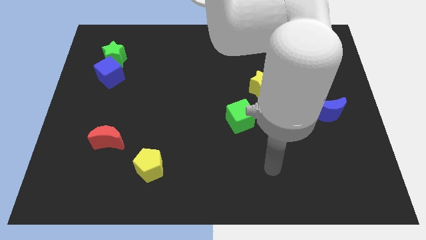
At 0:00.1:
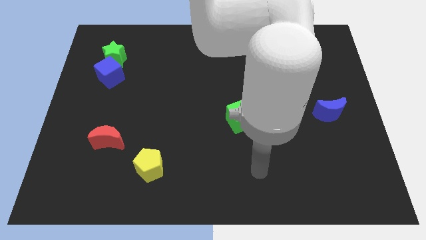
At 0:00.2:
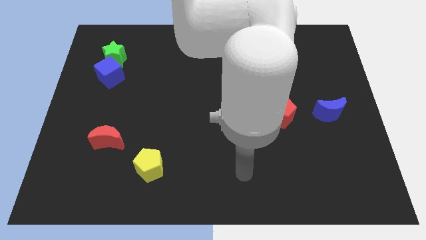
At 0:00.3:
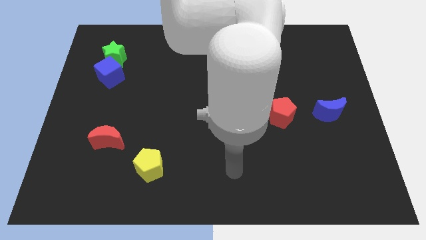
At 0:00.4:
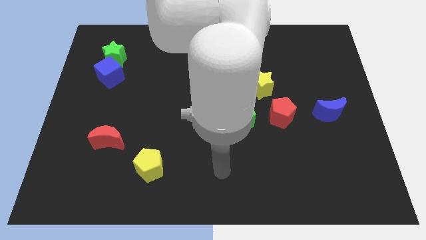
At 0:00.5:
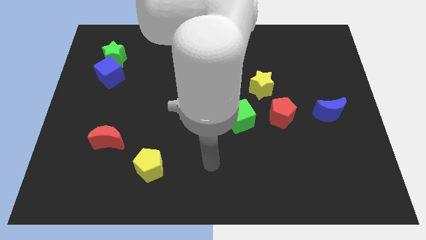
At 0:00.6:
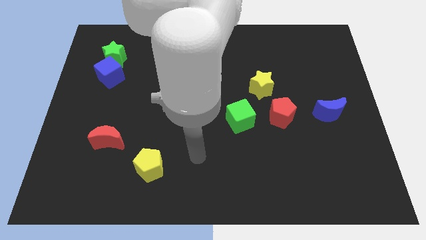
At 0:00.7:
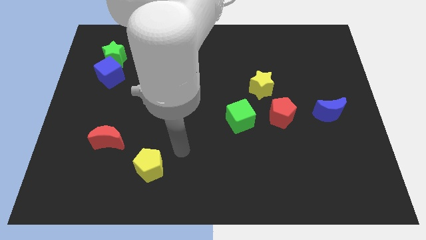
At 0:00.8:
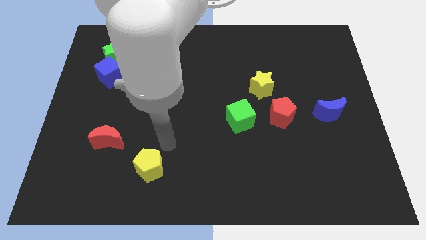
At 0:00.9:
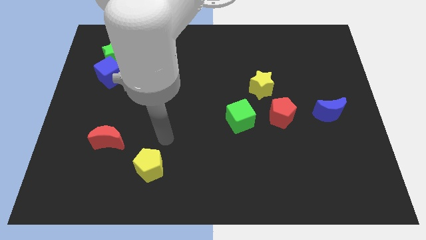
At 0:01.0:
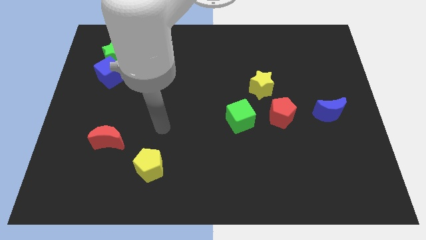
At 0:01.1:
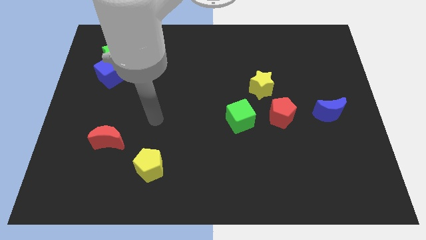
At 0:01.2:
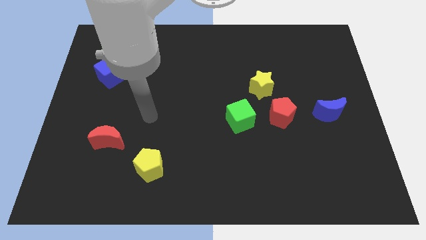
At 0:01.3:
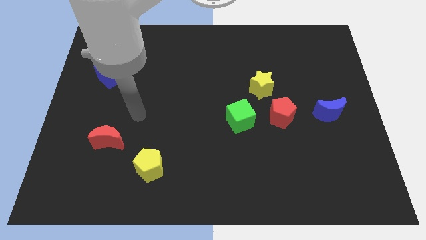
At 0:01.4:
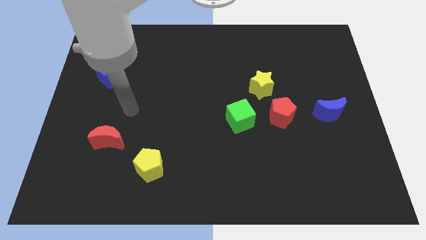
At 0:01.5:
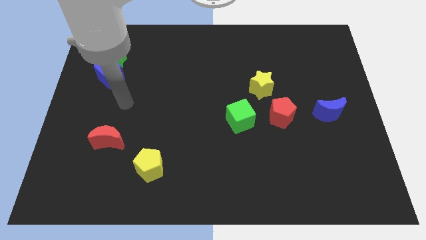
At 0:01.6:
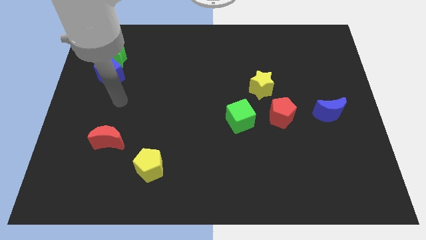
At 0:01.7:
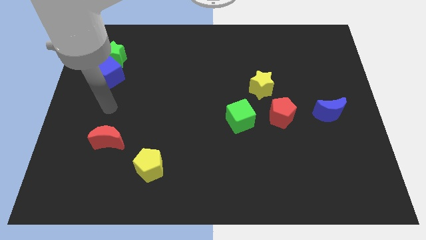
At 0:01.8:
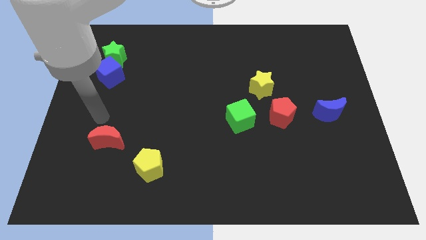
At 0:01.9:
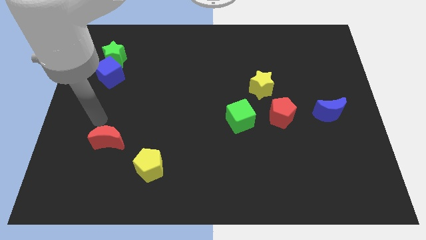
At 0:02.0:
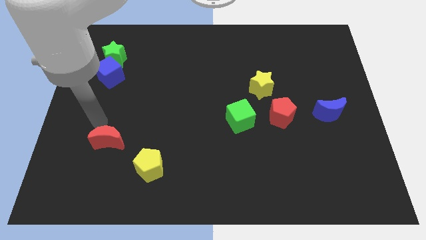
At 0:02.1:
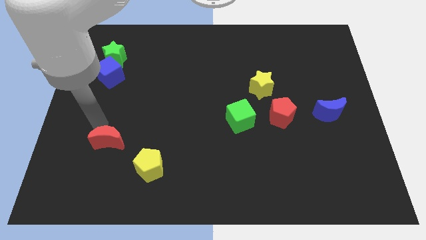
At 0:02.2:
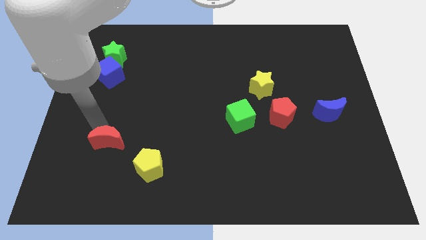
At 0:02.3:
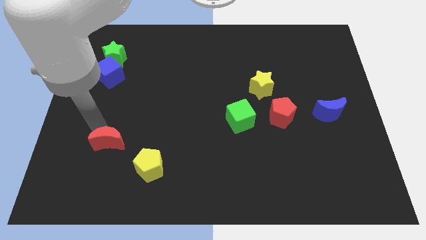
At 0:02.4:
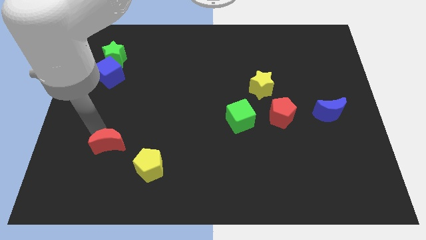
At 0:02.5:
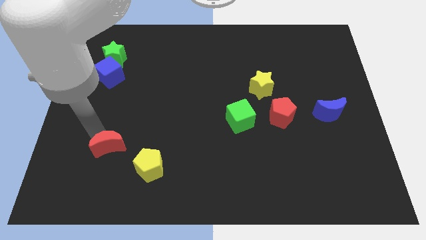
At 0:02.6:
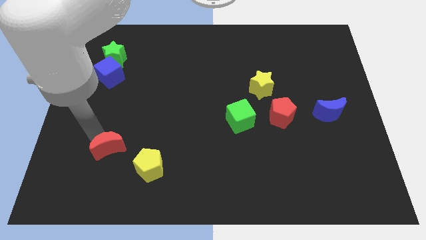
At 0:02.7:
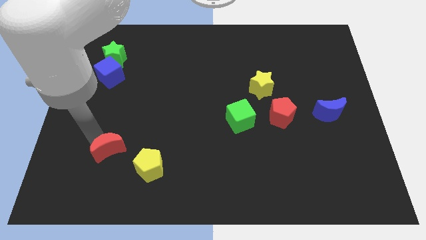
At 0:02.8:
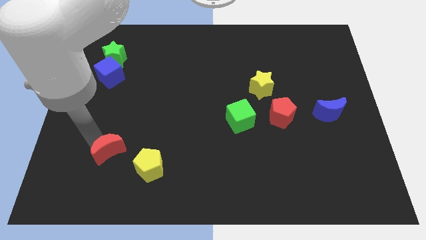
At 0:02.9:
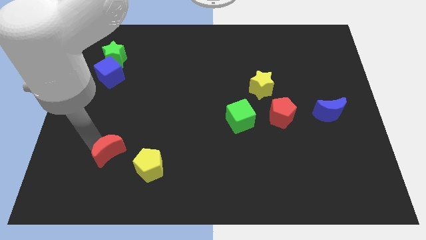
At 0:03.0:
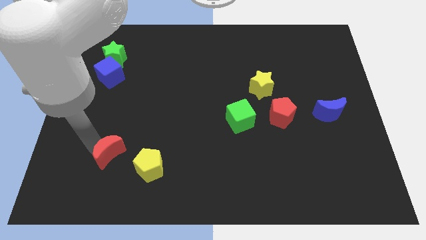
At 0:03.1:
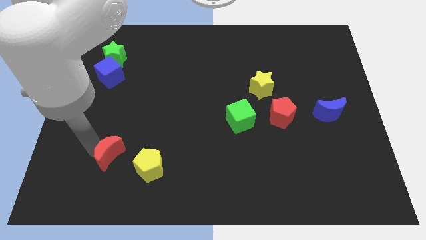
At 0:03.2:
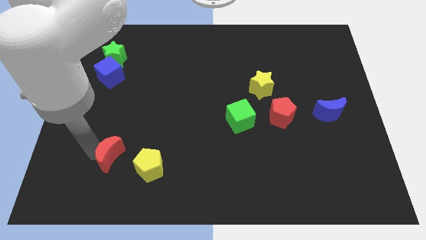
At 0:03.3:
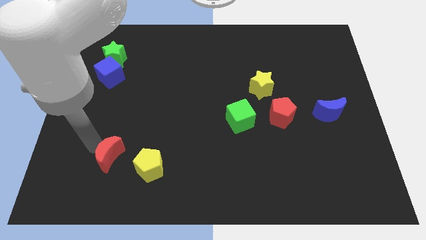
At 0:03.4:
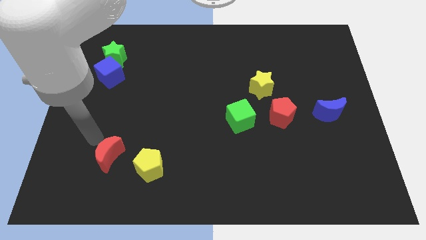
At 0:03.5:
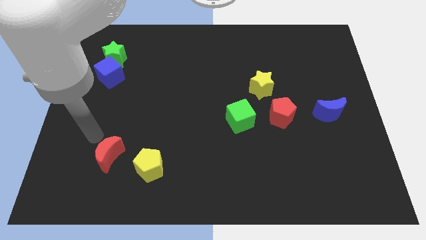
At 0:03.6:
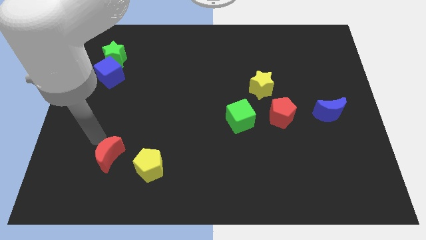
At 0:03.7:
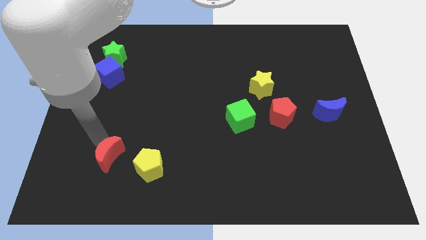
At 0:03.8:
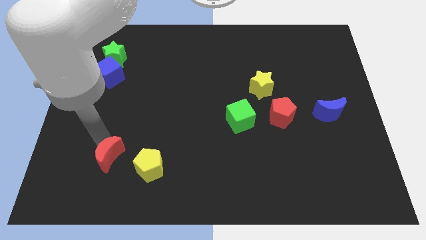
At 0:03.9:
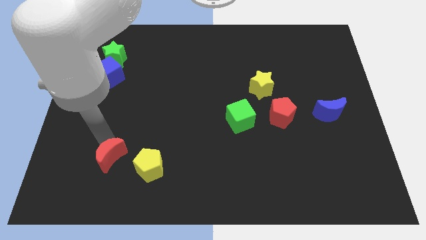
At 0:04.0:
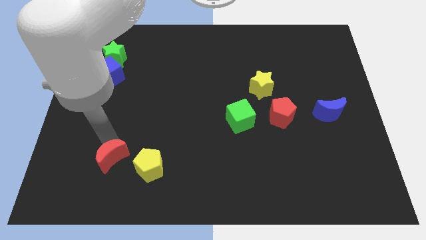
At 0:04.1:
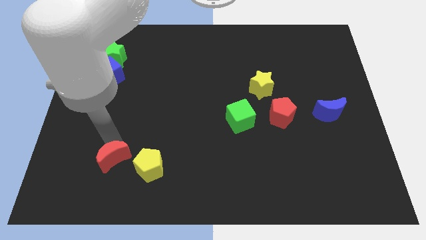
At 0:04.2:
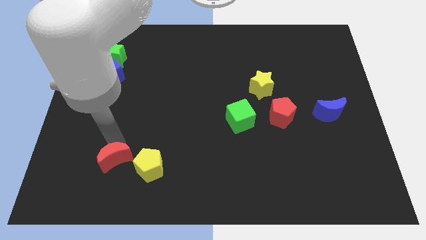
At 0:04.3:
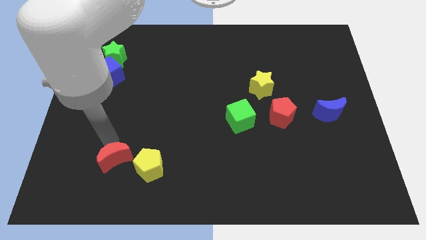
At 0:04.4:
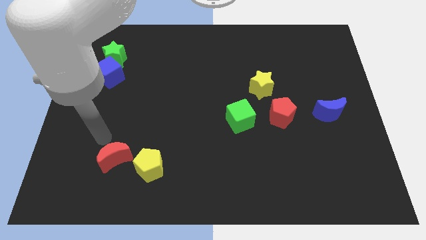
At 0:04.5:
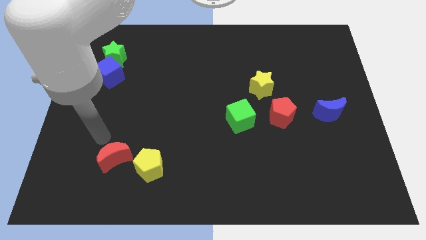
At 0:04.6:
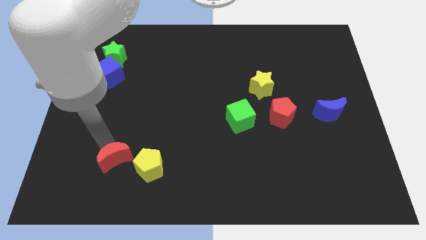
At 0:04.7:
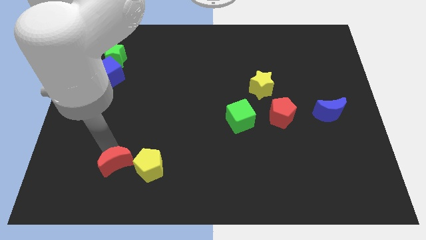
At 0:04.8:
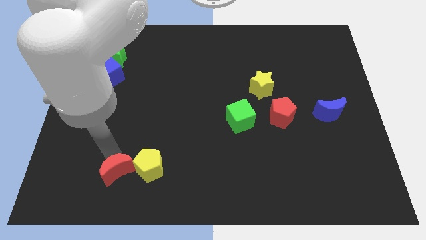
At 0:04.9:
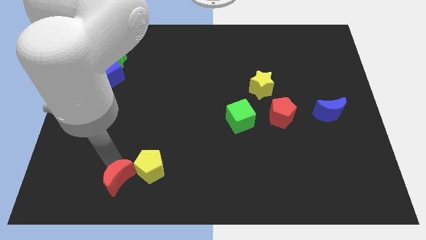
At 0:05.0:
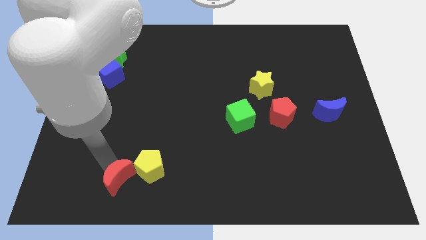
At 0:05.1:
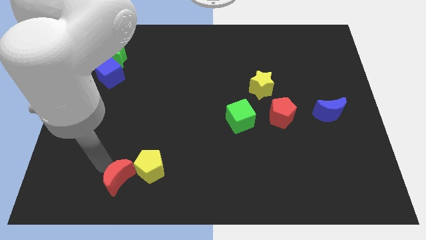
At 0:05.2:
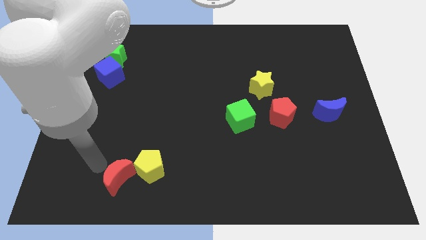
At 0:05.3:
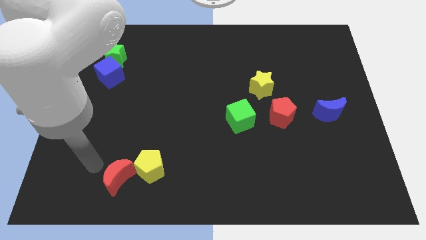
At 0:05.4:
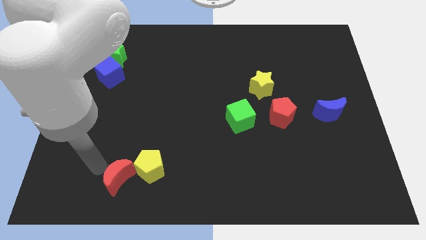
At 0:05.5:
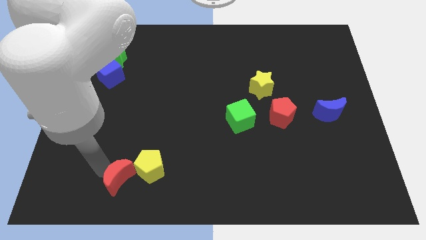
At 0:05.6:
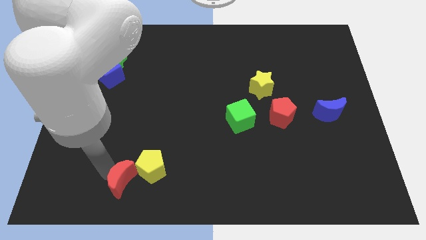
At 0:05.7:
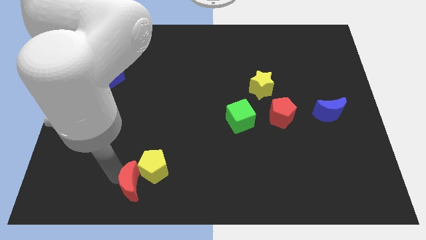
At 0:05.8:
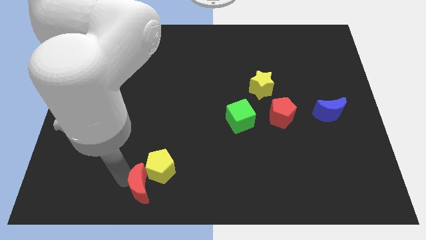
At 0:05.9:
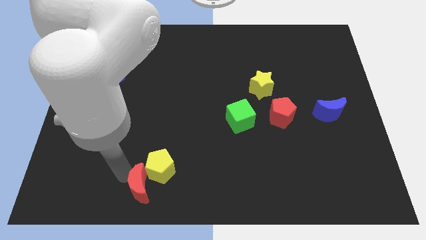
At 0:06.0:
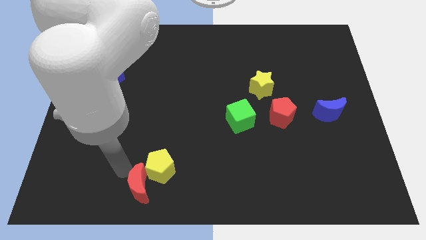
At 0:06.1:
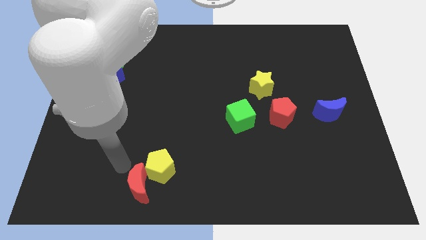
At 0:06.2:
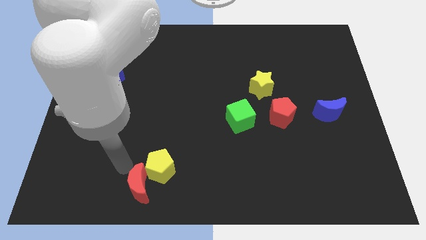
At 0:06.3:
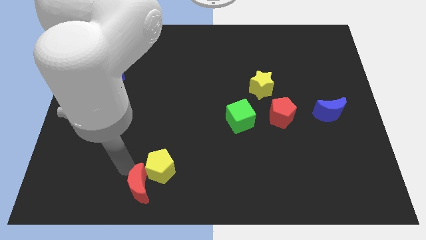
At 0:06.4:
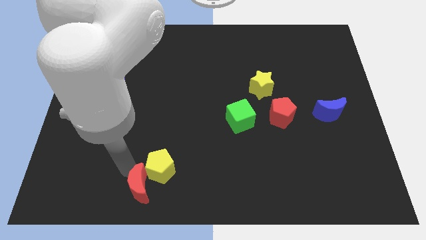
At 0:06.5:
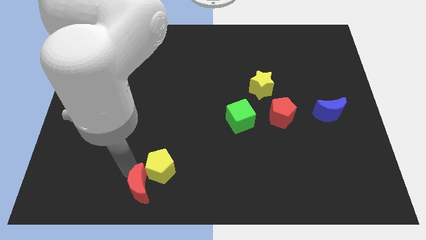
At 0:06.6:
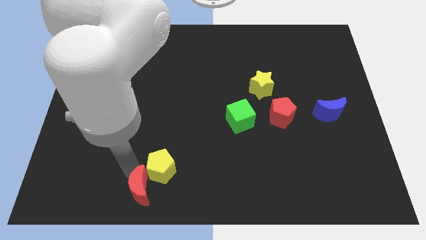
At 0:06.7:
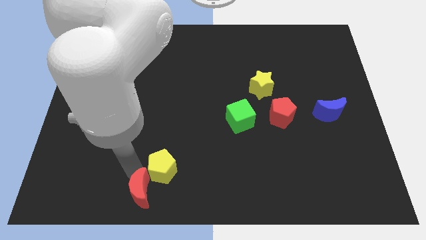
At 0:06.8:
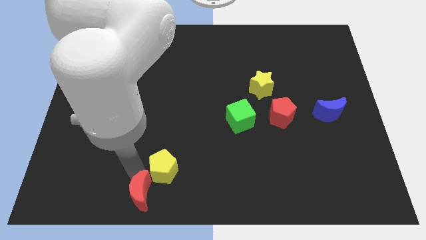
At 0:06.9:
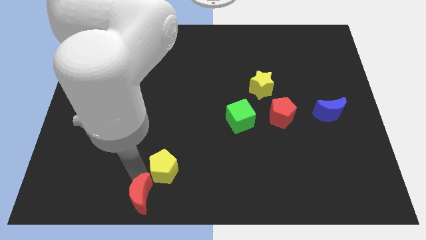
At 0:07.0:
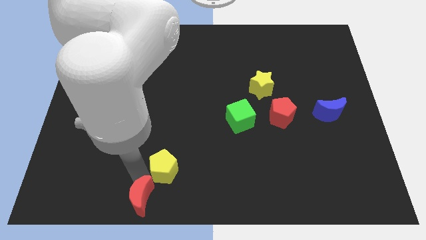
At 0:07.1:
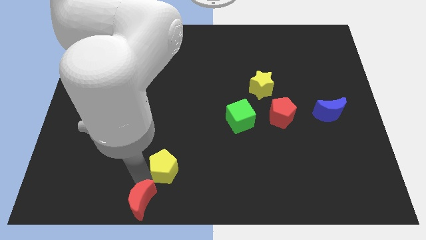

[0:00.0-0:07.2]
move the red moon to the bottom
